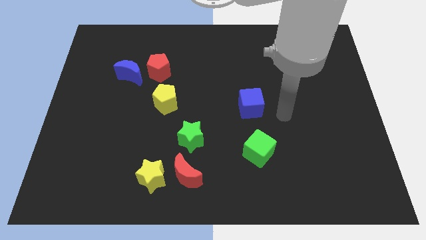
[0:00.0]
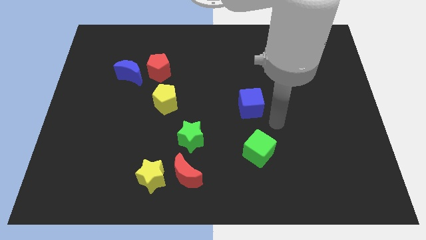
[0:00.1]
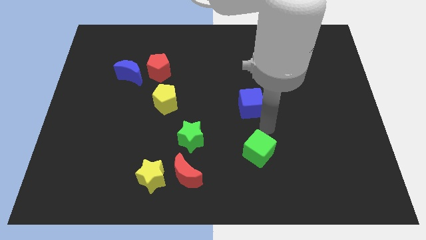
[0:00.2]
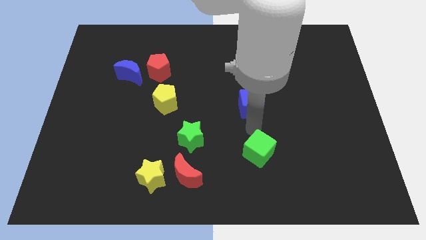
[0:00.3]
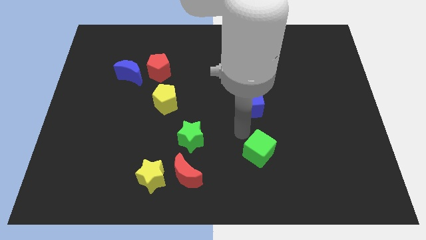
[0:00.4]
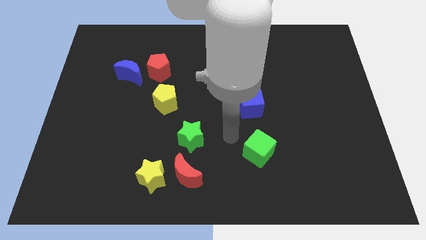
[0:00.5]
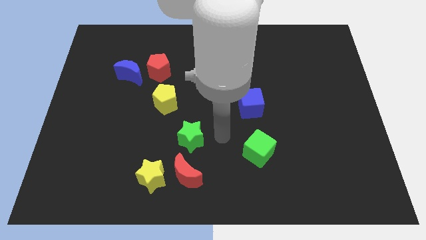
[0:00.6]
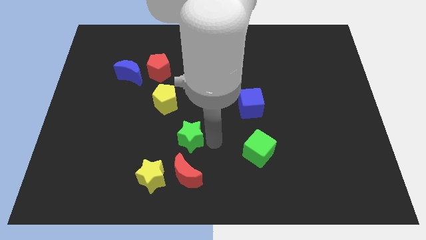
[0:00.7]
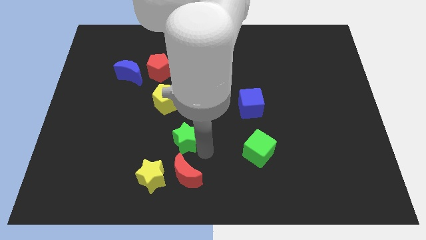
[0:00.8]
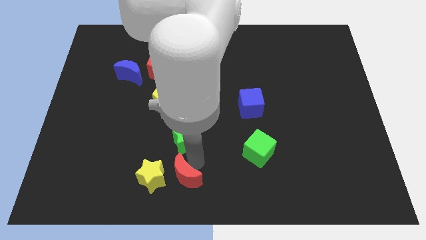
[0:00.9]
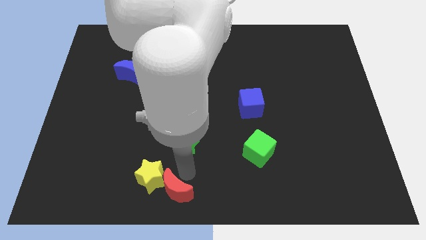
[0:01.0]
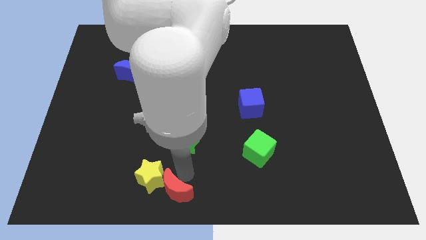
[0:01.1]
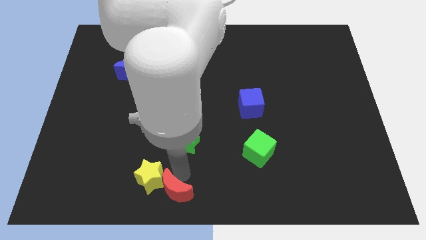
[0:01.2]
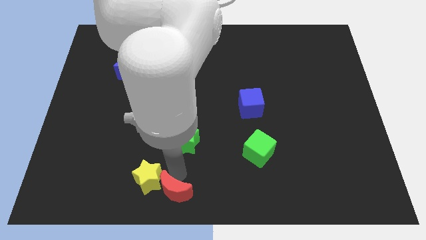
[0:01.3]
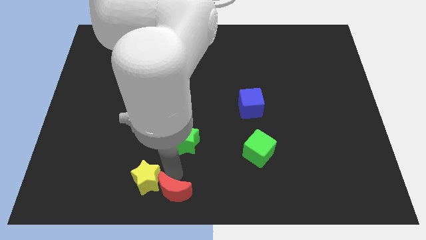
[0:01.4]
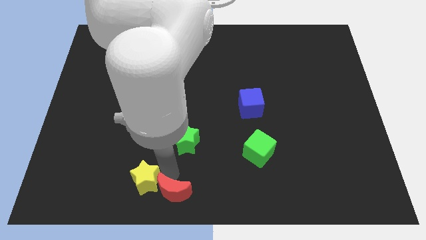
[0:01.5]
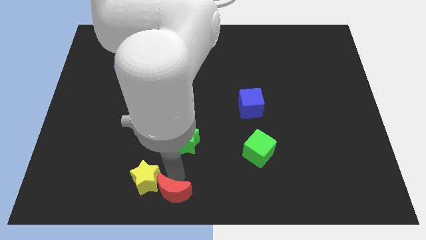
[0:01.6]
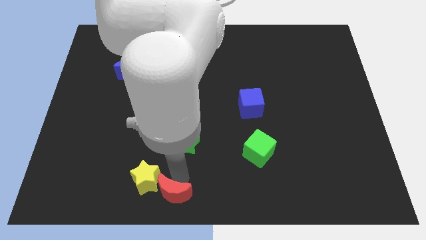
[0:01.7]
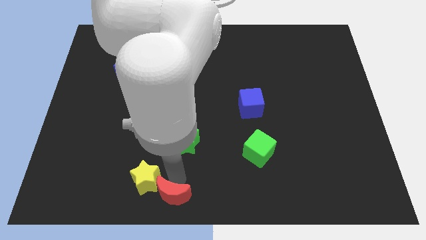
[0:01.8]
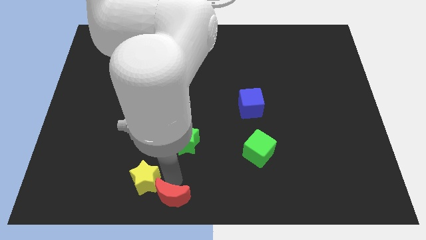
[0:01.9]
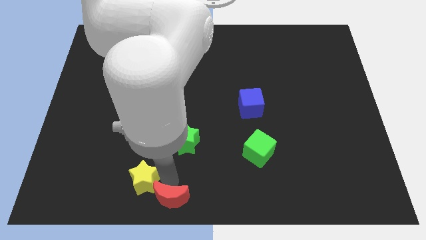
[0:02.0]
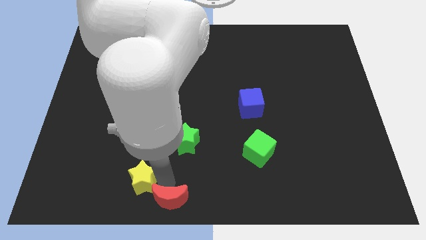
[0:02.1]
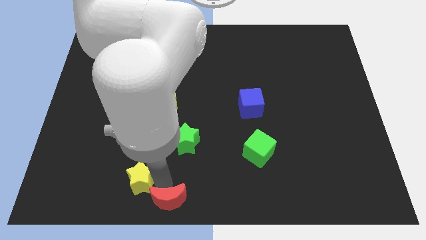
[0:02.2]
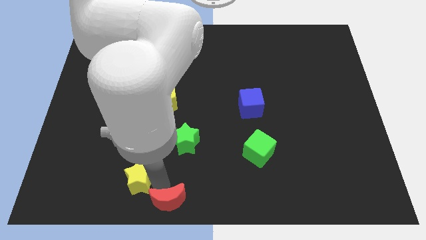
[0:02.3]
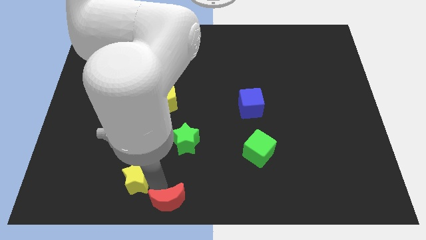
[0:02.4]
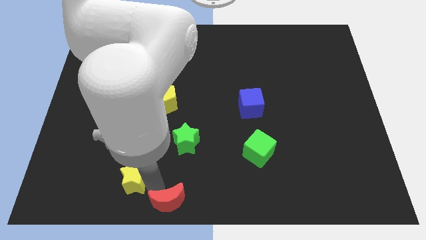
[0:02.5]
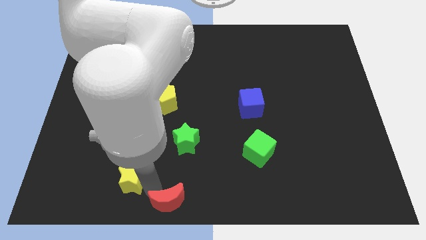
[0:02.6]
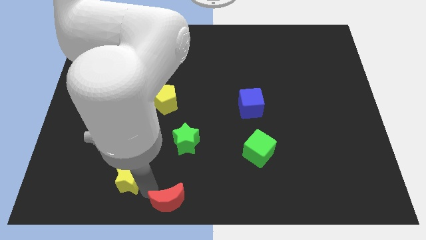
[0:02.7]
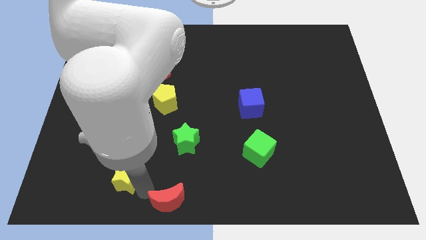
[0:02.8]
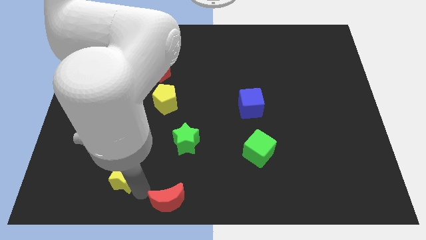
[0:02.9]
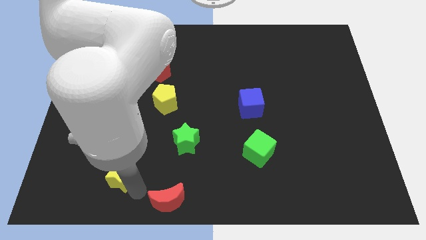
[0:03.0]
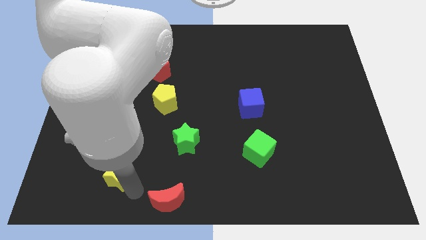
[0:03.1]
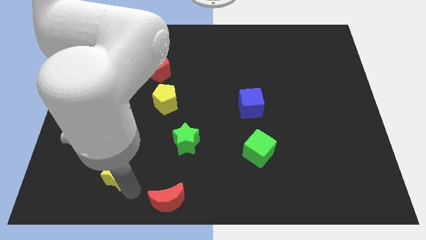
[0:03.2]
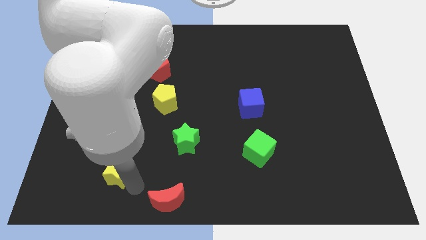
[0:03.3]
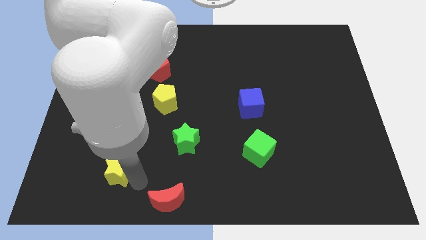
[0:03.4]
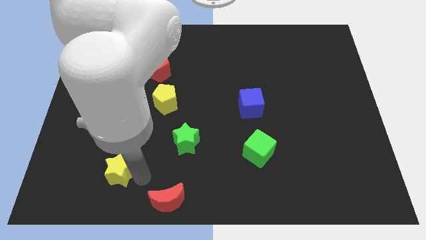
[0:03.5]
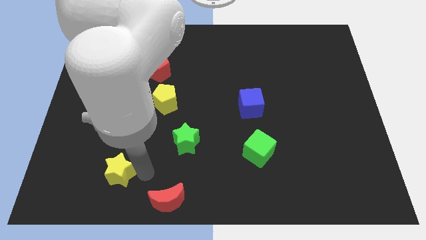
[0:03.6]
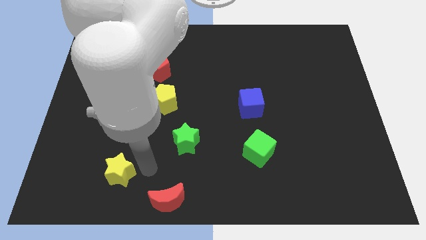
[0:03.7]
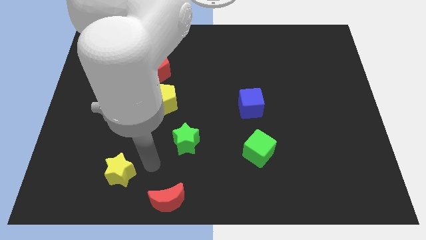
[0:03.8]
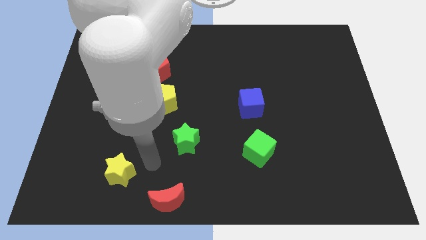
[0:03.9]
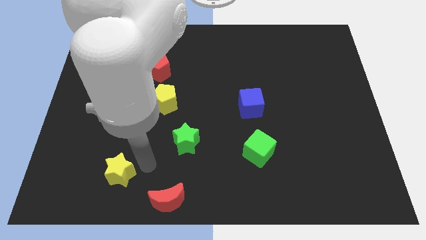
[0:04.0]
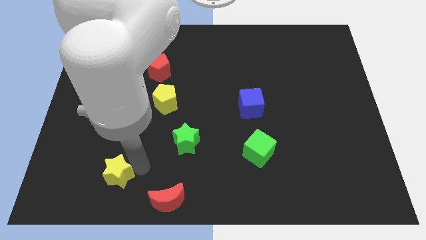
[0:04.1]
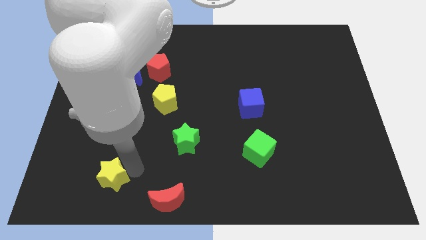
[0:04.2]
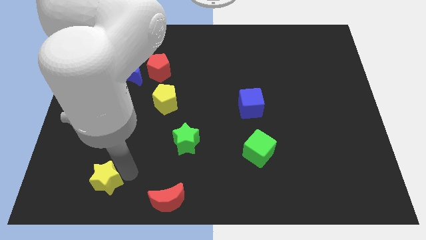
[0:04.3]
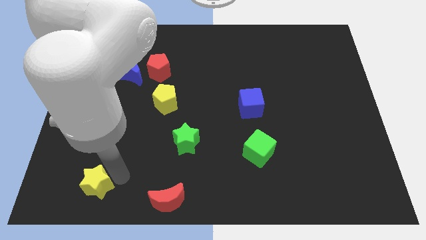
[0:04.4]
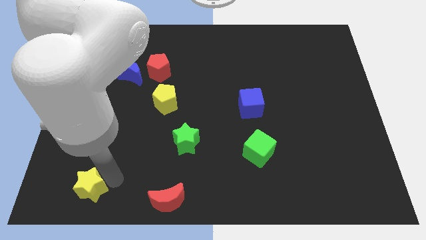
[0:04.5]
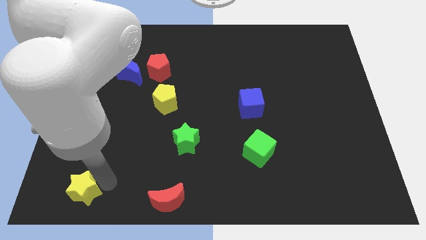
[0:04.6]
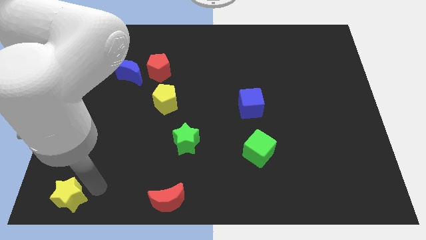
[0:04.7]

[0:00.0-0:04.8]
push the yellow star to the bottom left corner

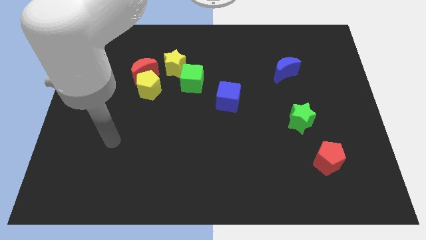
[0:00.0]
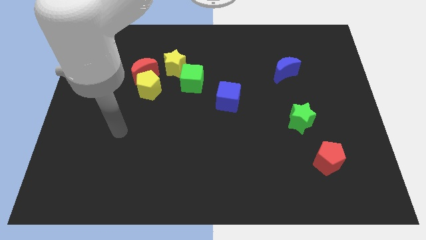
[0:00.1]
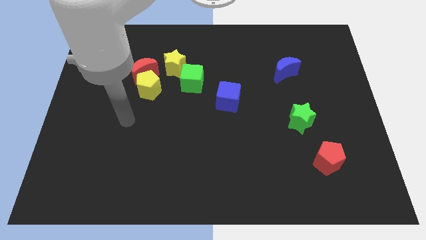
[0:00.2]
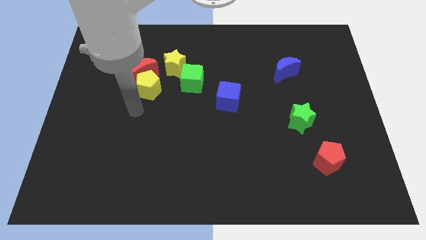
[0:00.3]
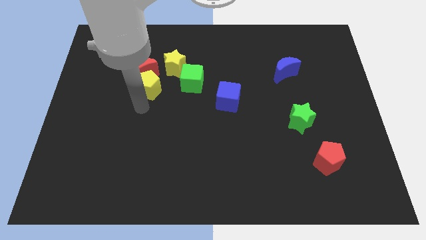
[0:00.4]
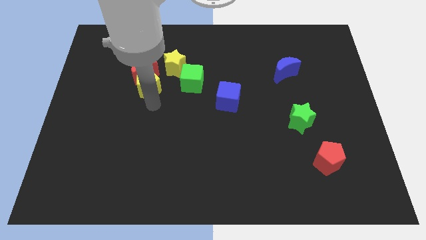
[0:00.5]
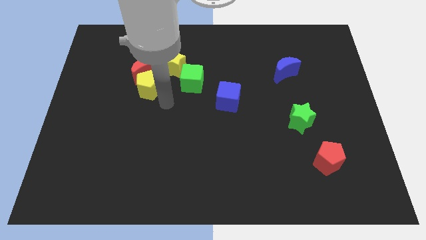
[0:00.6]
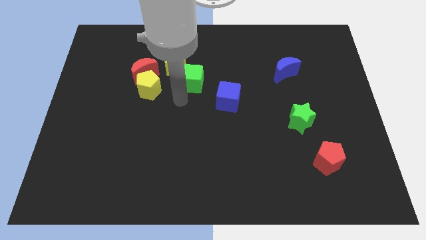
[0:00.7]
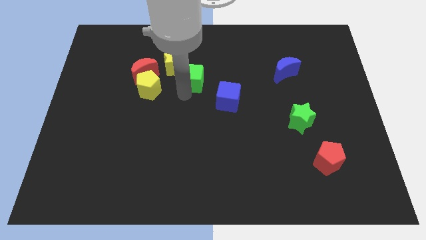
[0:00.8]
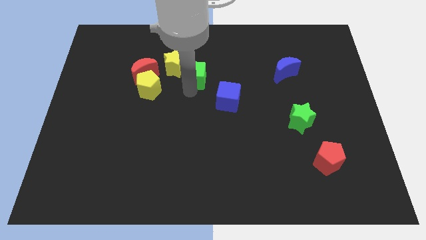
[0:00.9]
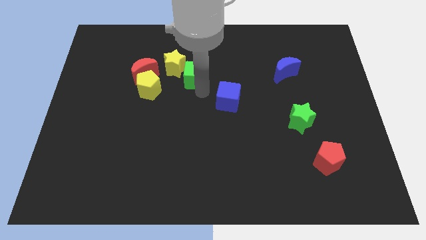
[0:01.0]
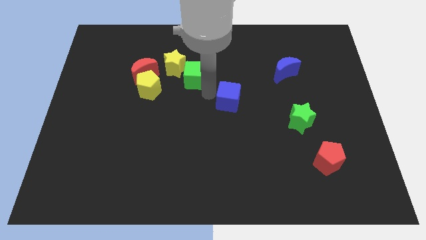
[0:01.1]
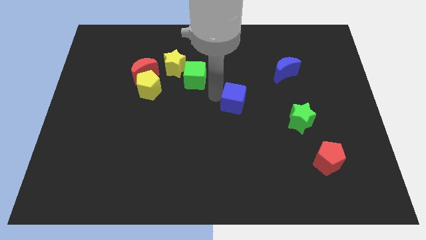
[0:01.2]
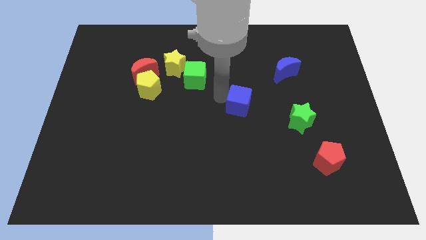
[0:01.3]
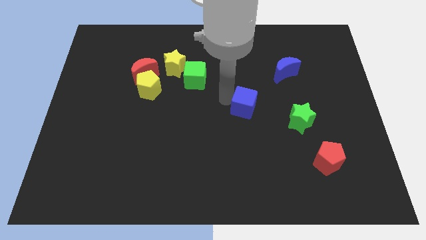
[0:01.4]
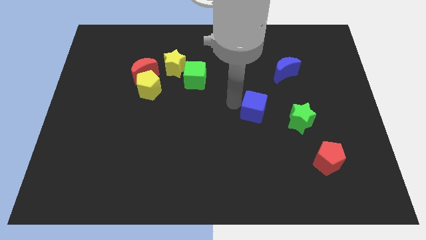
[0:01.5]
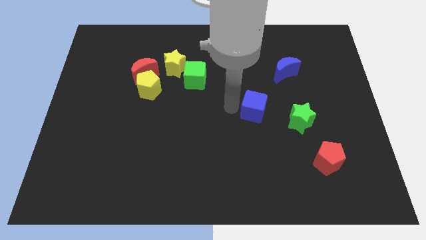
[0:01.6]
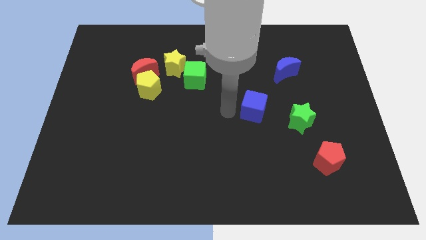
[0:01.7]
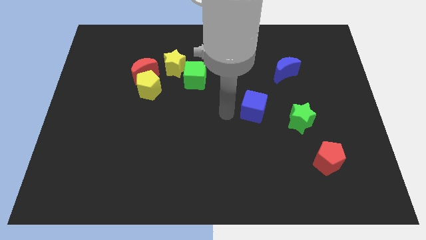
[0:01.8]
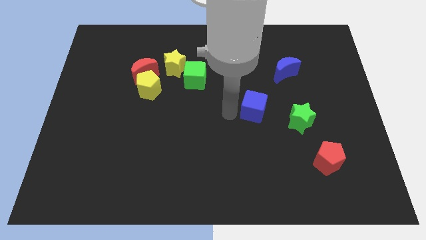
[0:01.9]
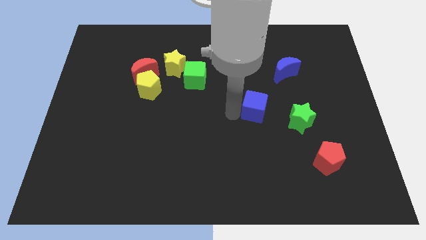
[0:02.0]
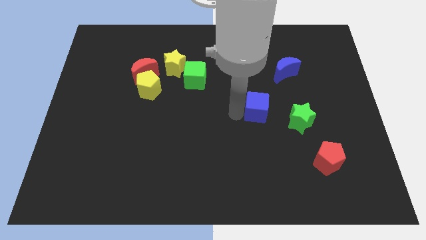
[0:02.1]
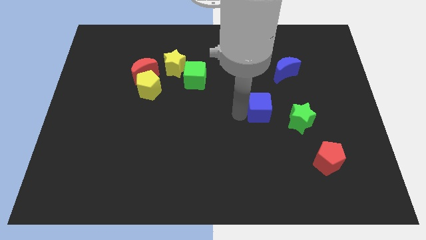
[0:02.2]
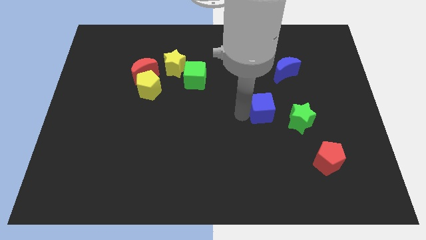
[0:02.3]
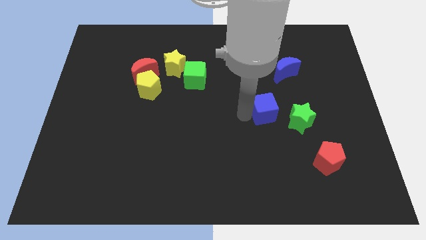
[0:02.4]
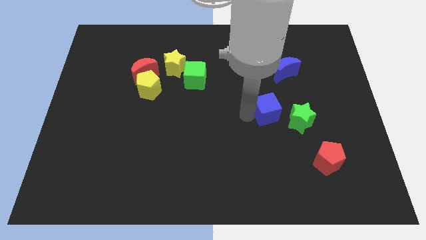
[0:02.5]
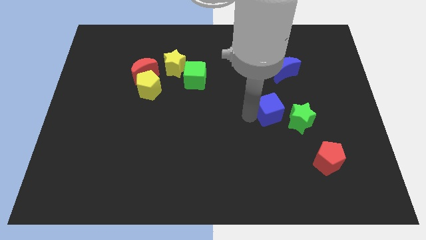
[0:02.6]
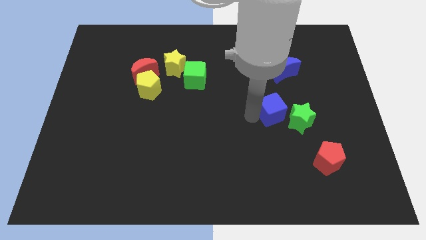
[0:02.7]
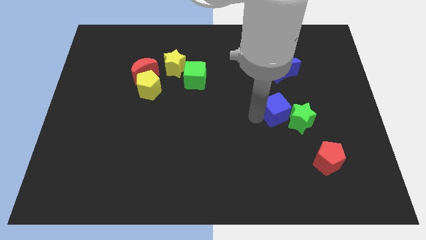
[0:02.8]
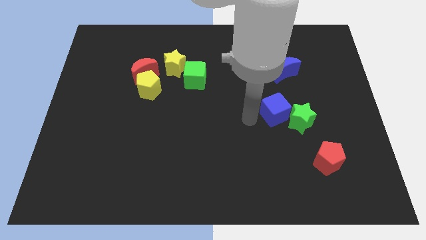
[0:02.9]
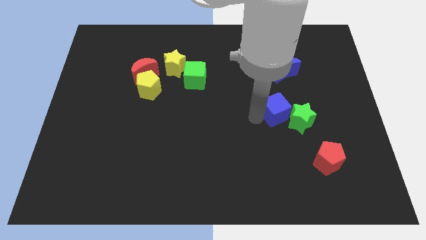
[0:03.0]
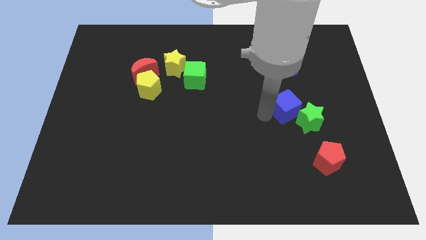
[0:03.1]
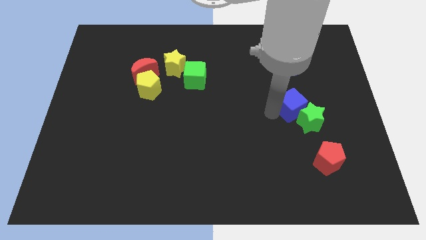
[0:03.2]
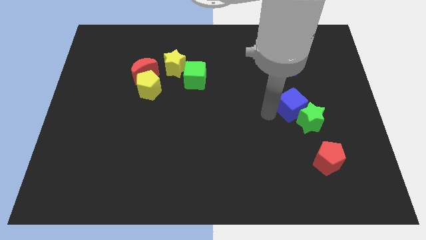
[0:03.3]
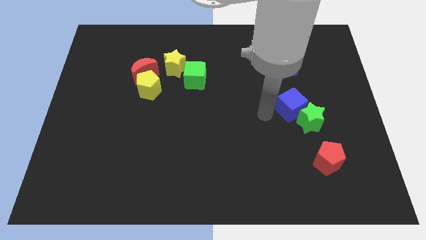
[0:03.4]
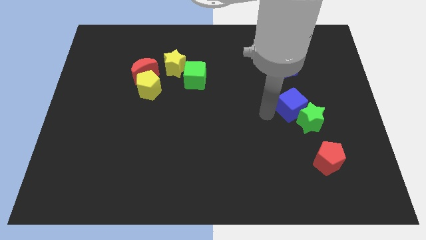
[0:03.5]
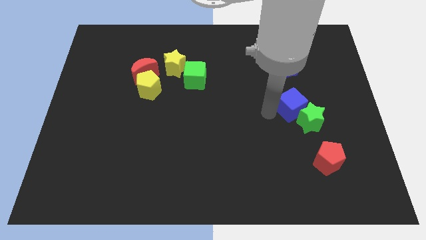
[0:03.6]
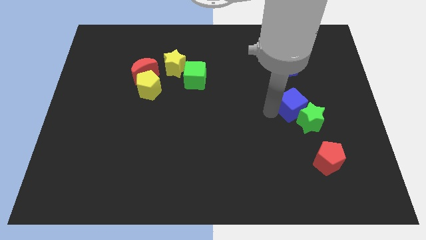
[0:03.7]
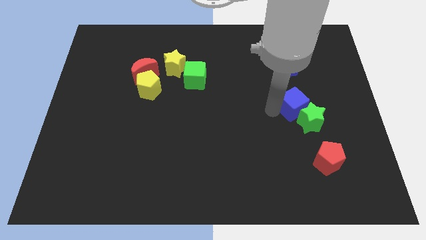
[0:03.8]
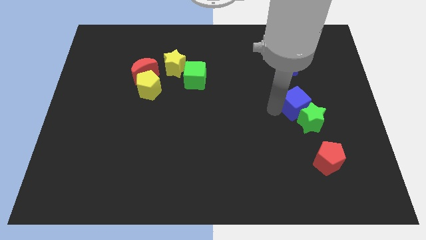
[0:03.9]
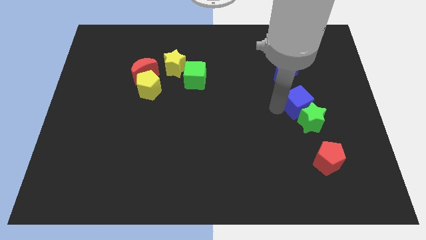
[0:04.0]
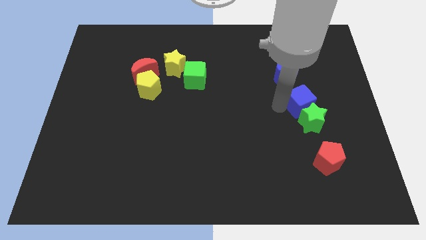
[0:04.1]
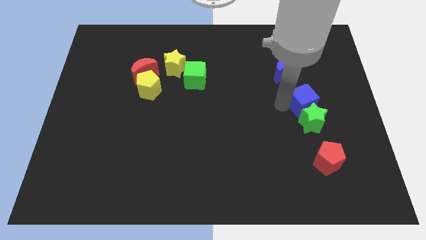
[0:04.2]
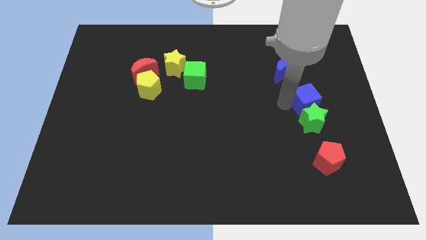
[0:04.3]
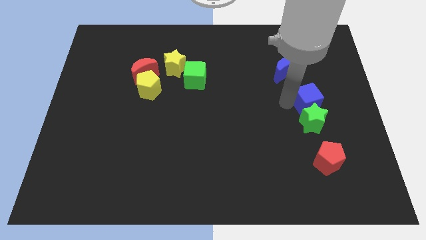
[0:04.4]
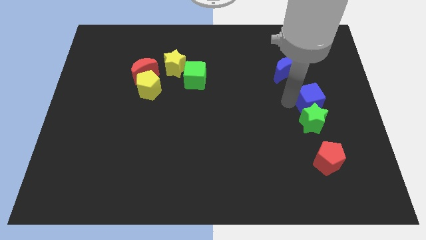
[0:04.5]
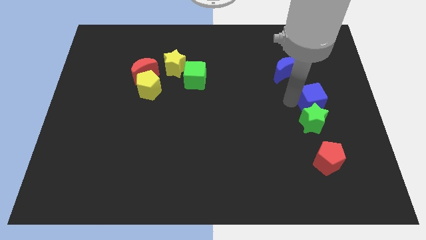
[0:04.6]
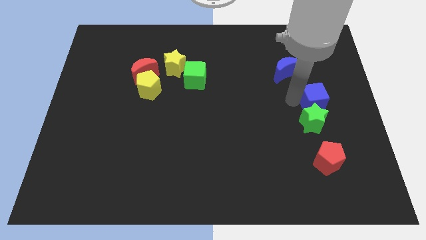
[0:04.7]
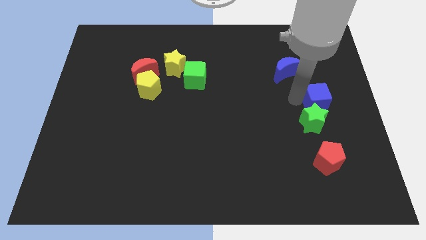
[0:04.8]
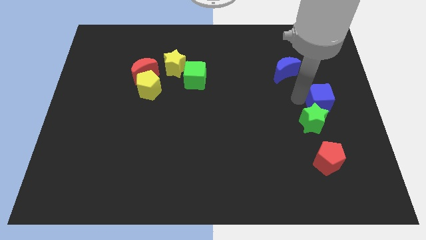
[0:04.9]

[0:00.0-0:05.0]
move the blue cube to the right side of the board
